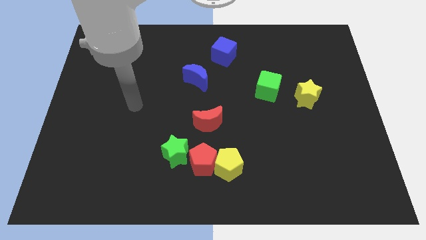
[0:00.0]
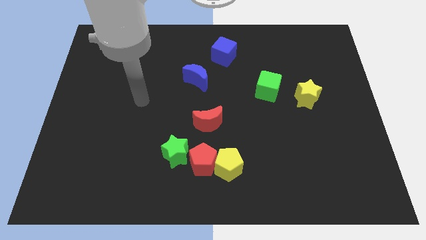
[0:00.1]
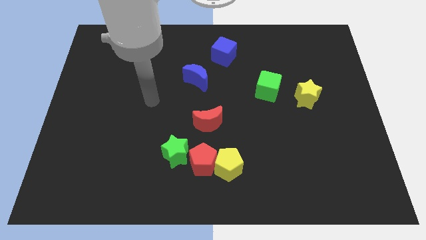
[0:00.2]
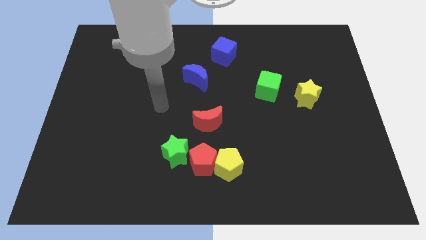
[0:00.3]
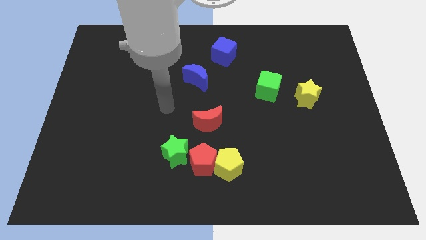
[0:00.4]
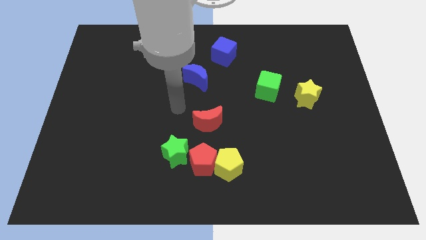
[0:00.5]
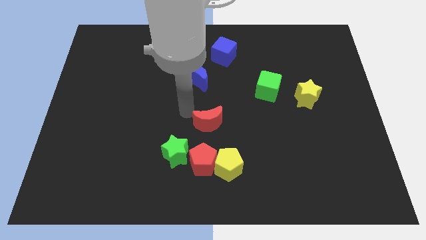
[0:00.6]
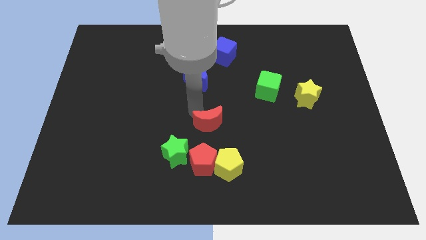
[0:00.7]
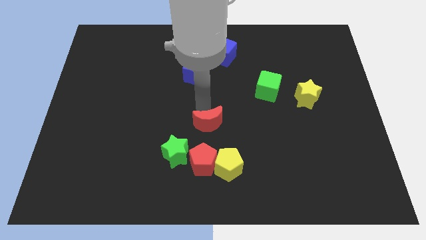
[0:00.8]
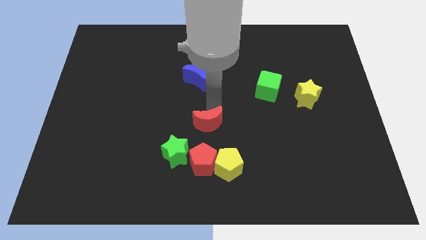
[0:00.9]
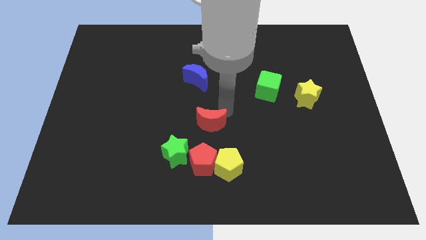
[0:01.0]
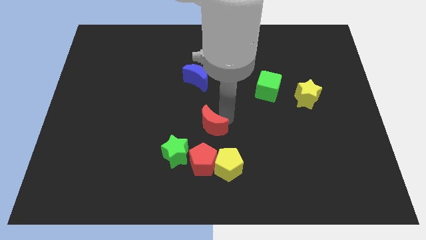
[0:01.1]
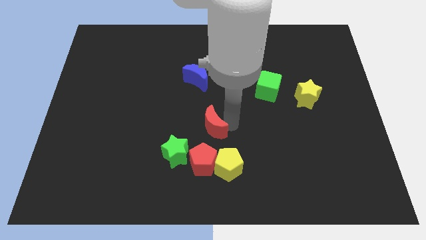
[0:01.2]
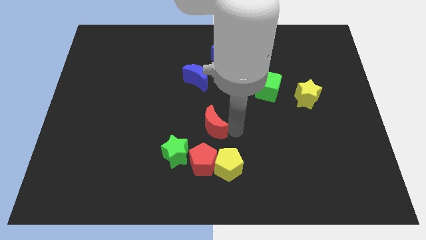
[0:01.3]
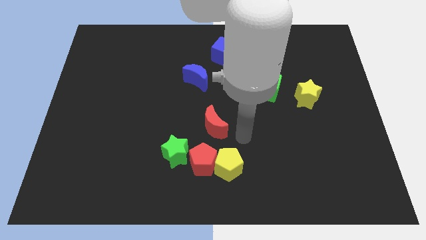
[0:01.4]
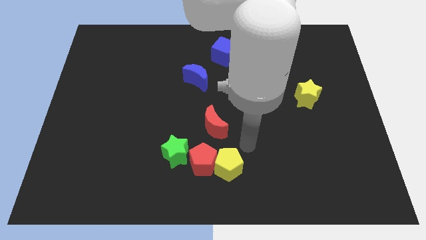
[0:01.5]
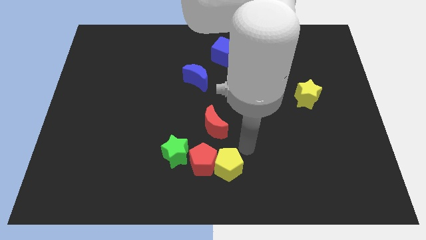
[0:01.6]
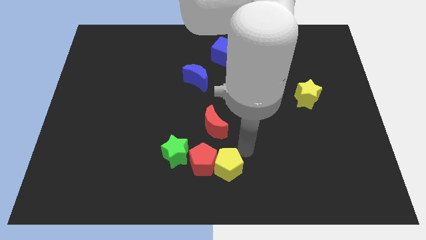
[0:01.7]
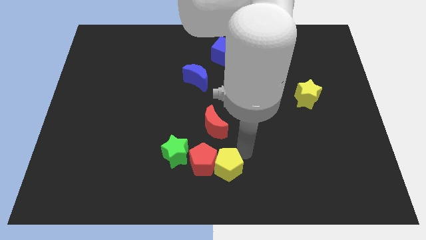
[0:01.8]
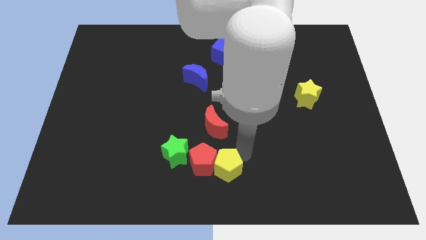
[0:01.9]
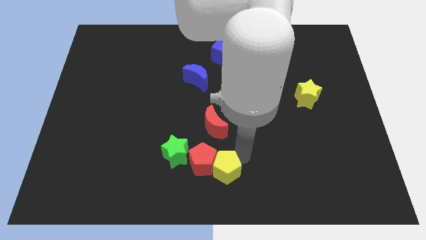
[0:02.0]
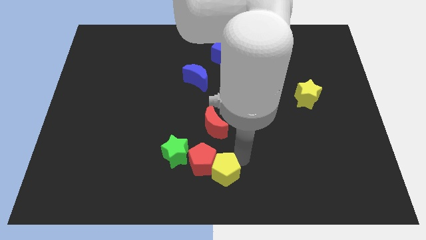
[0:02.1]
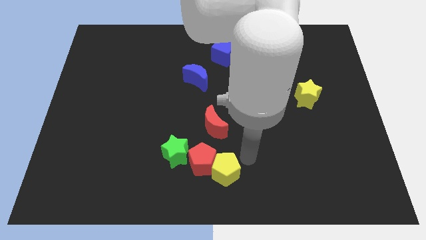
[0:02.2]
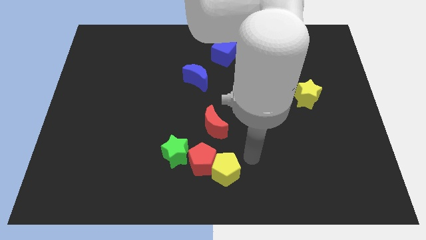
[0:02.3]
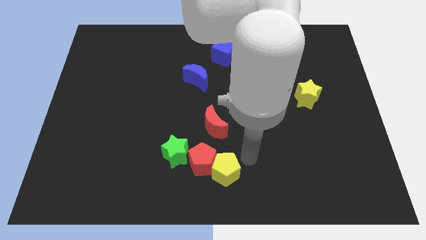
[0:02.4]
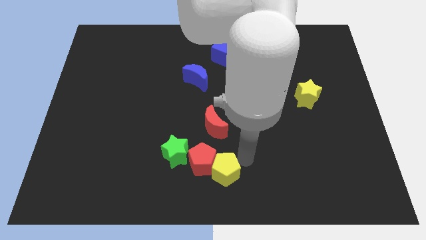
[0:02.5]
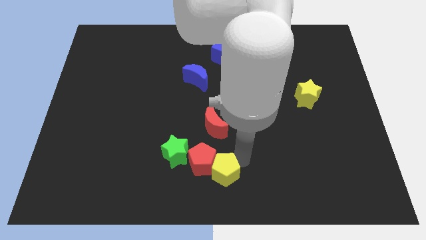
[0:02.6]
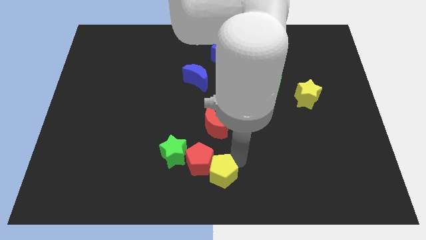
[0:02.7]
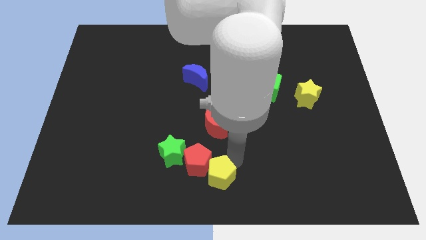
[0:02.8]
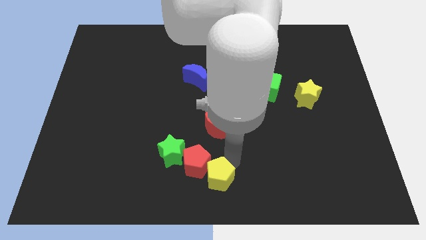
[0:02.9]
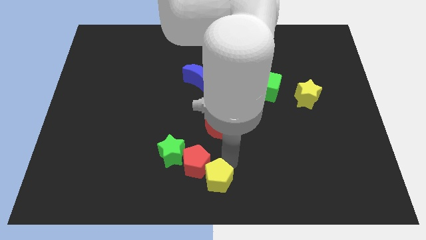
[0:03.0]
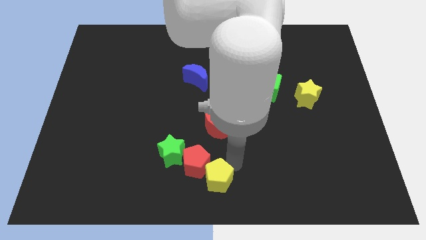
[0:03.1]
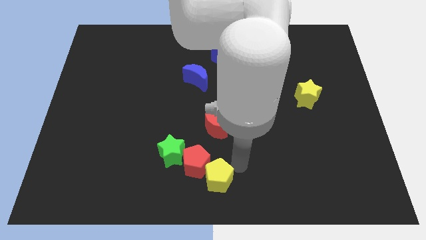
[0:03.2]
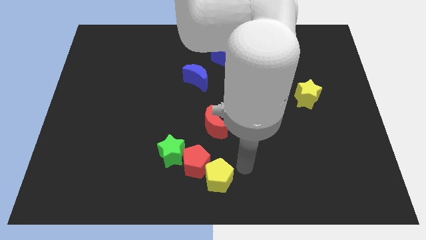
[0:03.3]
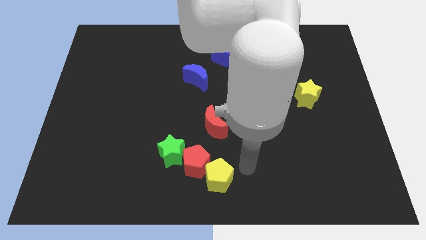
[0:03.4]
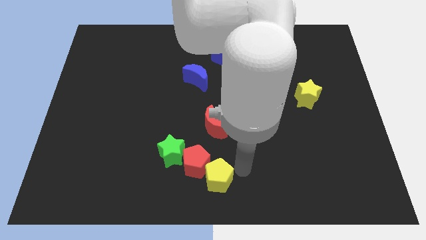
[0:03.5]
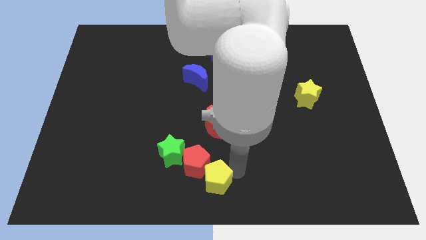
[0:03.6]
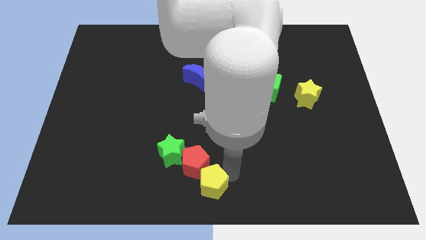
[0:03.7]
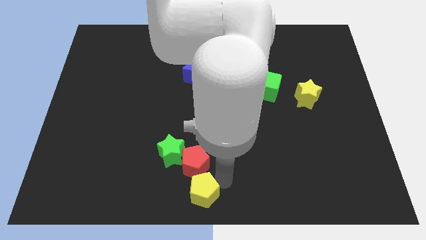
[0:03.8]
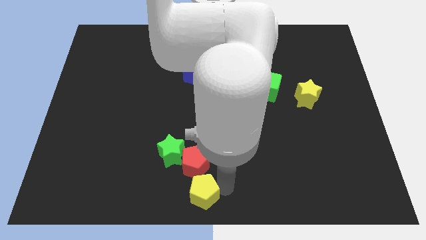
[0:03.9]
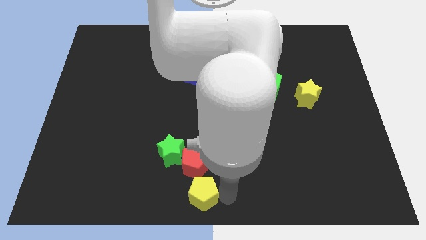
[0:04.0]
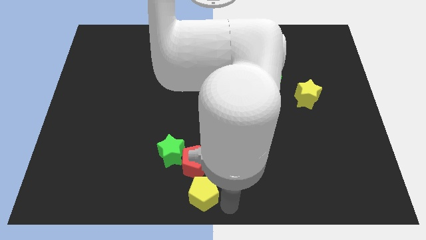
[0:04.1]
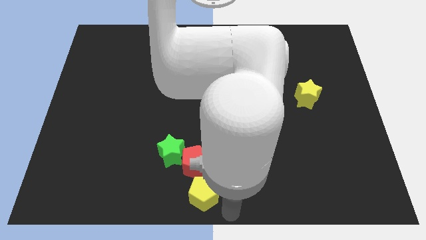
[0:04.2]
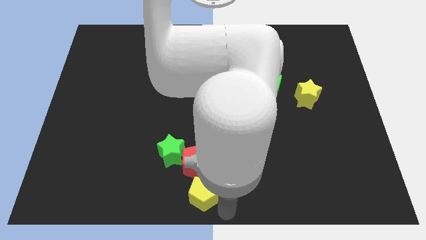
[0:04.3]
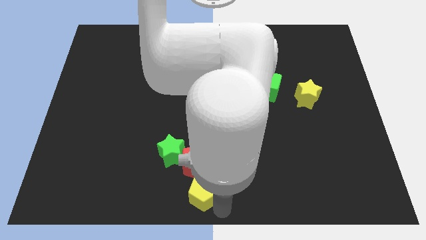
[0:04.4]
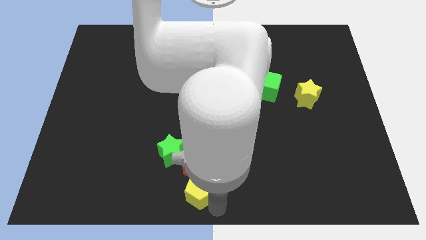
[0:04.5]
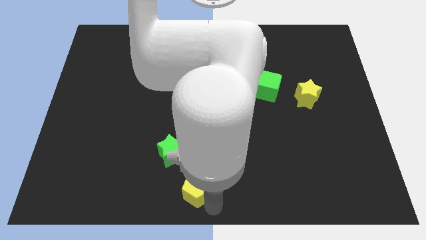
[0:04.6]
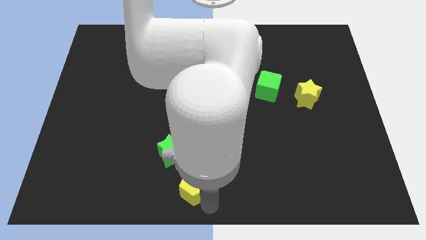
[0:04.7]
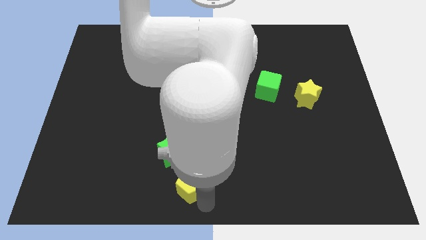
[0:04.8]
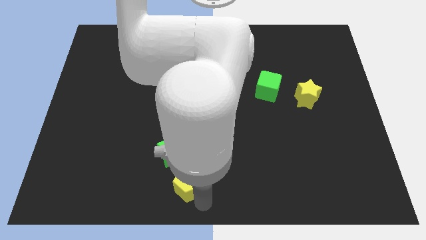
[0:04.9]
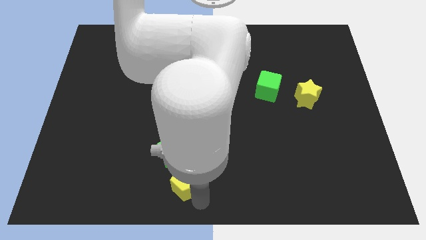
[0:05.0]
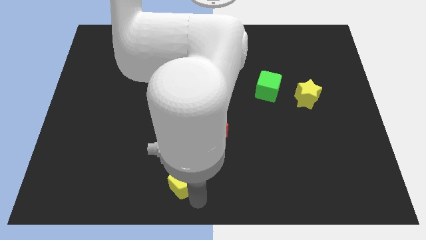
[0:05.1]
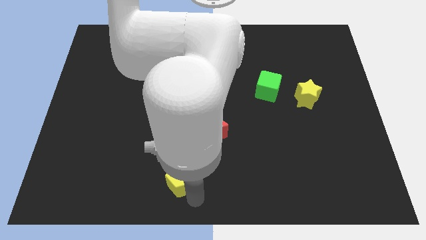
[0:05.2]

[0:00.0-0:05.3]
slide the yellow pentagon to the left of the red pentagon

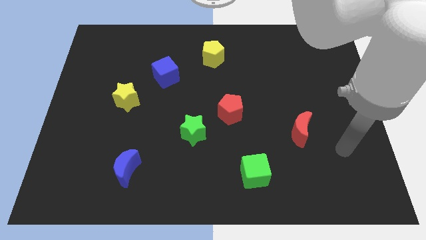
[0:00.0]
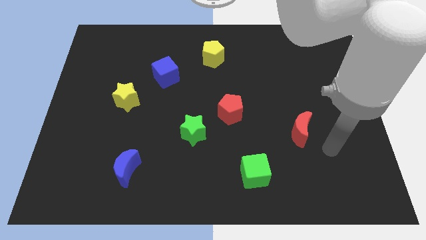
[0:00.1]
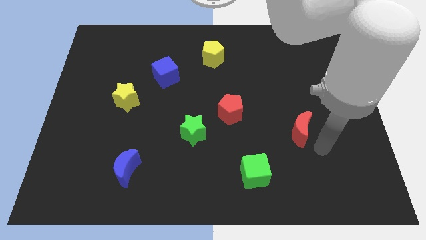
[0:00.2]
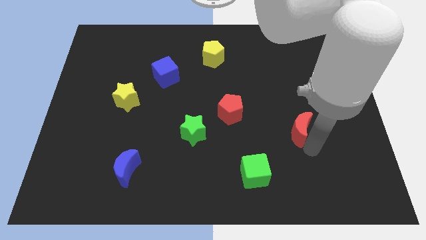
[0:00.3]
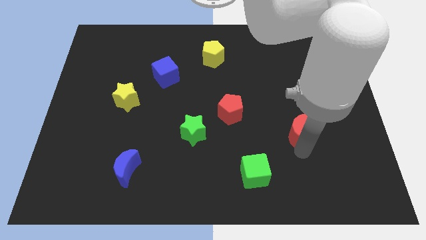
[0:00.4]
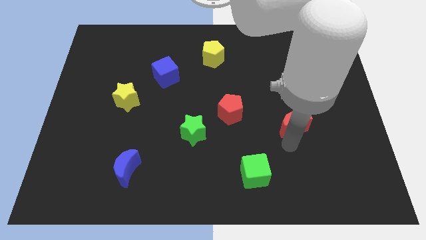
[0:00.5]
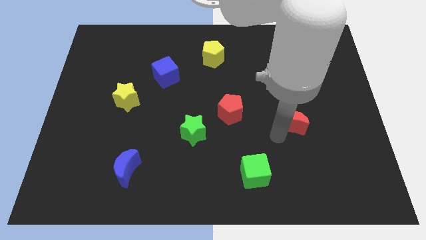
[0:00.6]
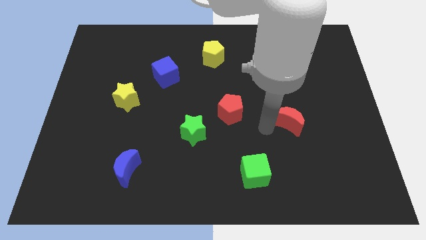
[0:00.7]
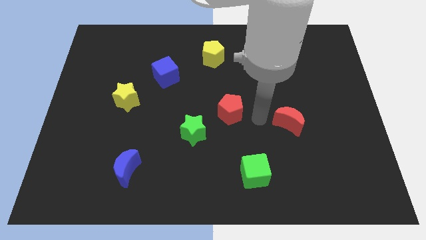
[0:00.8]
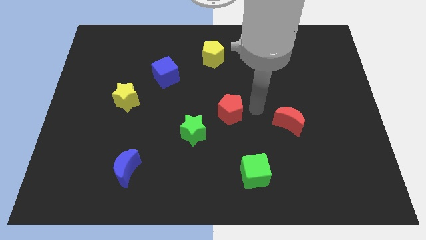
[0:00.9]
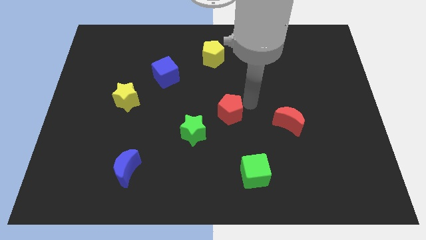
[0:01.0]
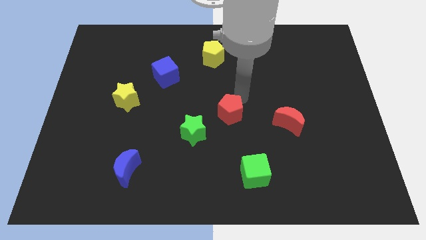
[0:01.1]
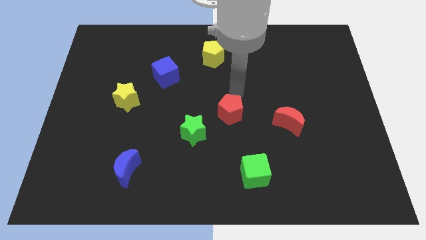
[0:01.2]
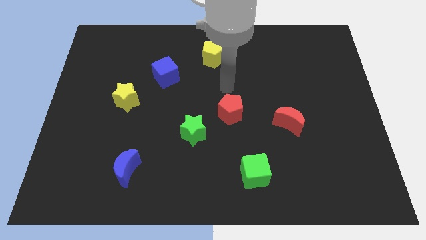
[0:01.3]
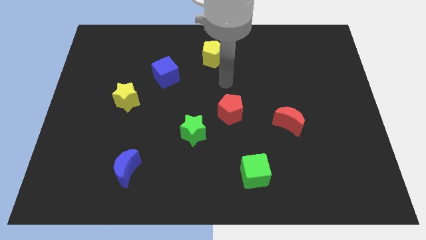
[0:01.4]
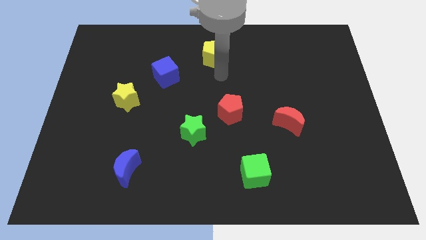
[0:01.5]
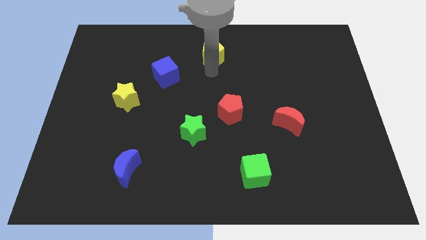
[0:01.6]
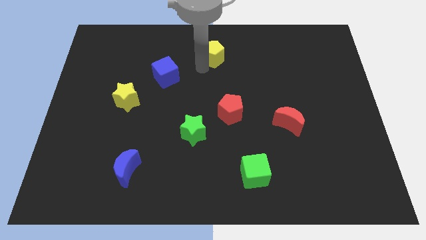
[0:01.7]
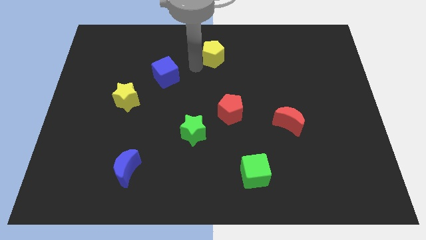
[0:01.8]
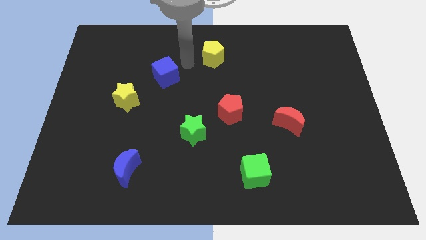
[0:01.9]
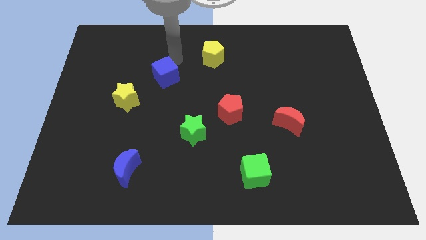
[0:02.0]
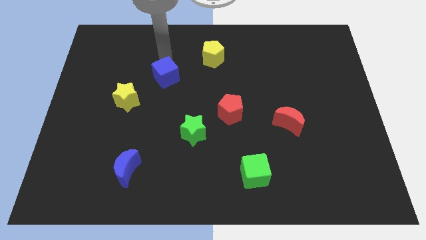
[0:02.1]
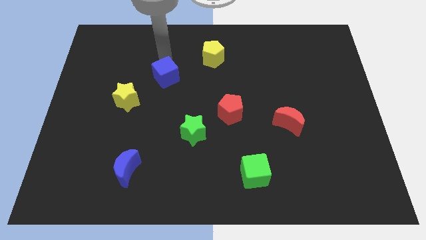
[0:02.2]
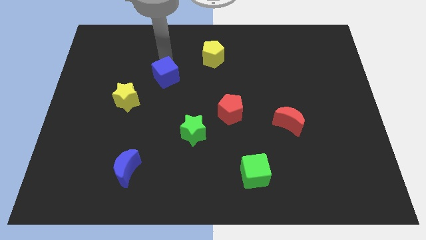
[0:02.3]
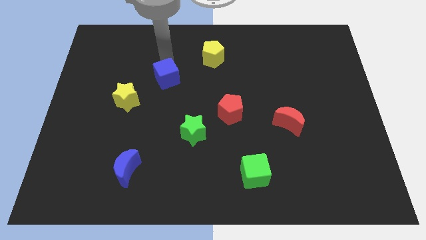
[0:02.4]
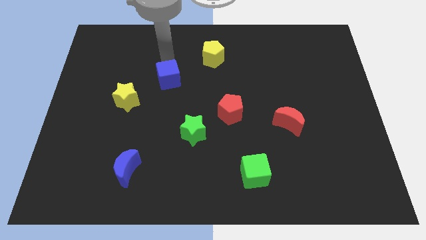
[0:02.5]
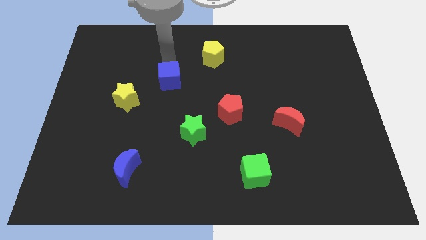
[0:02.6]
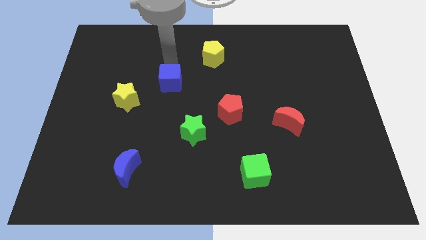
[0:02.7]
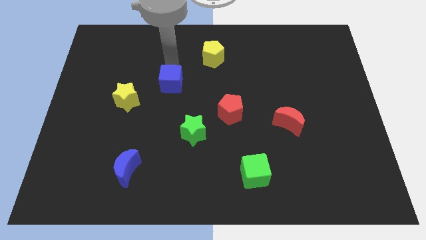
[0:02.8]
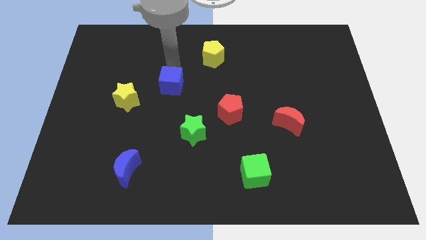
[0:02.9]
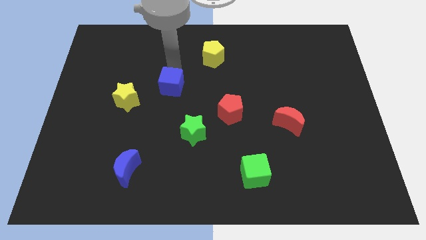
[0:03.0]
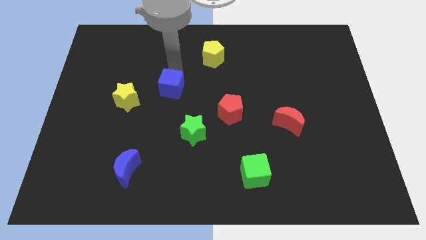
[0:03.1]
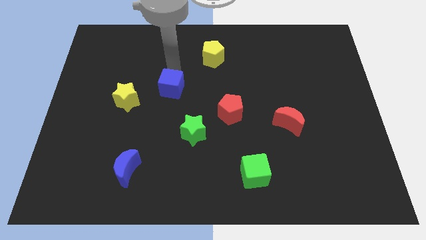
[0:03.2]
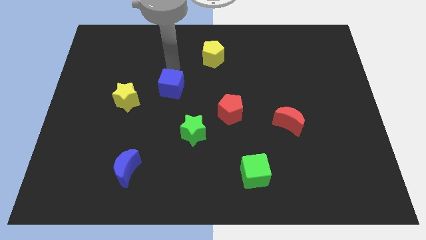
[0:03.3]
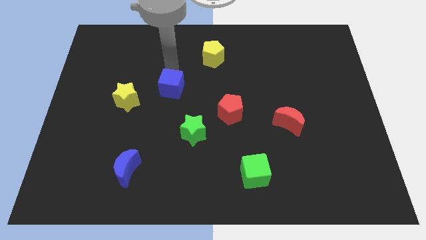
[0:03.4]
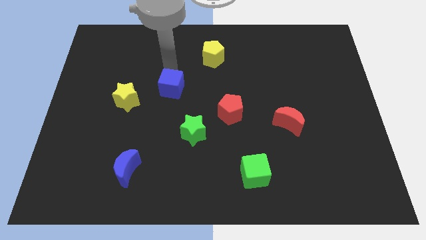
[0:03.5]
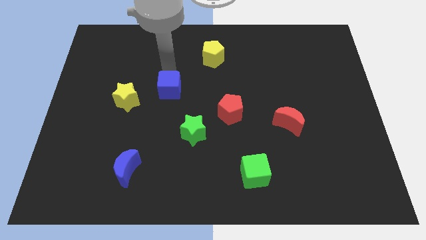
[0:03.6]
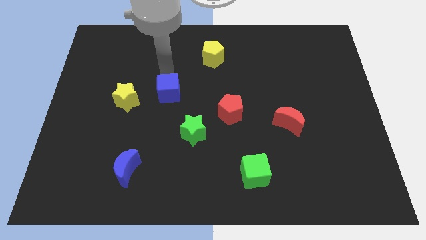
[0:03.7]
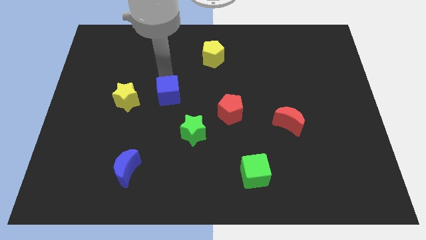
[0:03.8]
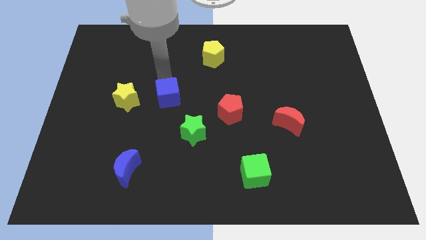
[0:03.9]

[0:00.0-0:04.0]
put the blue cube diagonally up and to the left of the green star
